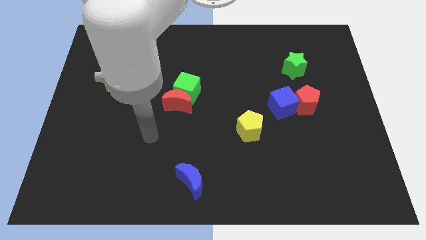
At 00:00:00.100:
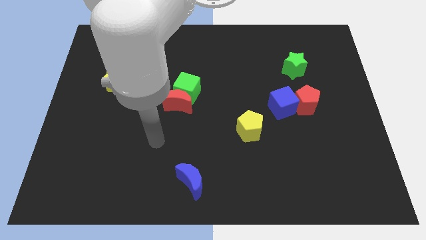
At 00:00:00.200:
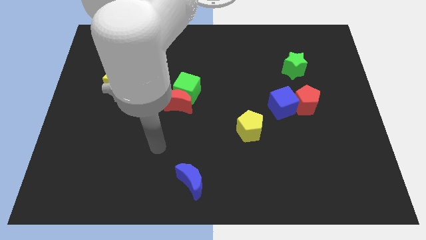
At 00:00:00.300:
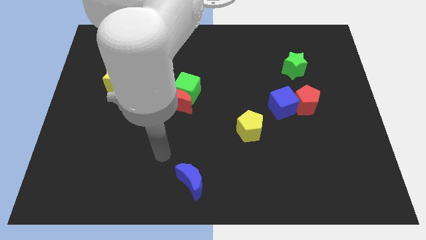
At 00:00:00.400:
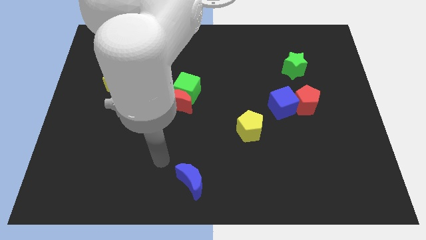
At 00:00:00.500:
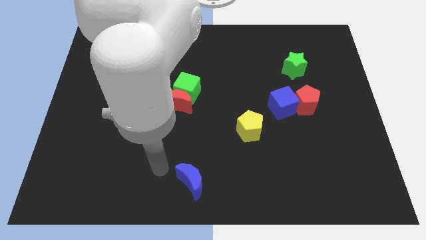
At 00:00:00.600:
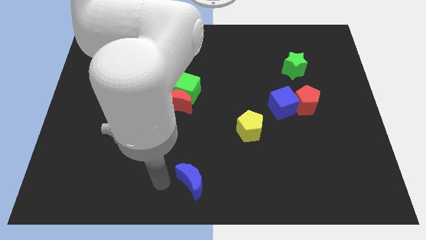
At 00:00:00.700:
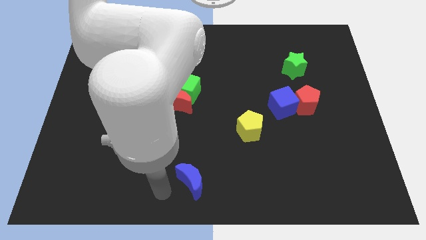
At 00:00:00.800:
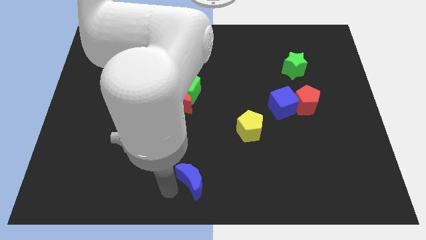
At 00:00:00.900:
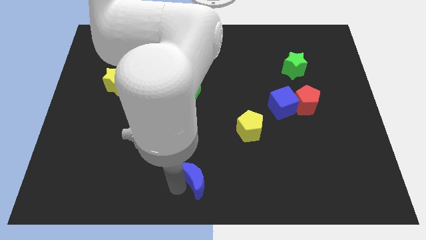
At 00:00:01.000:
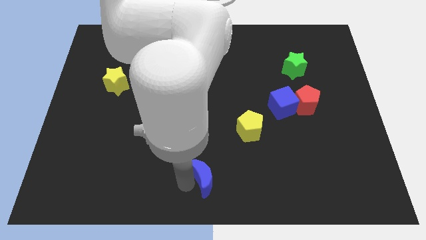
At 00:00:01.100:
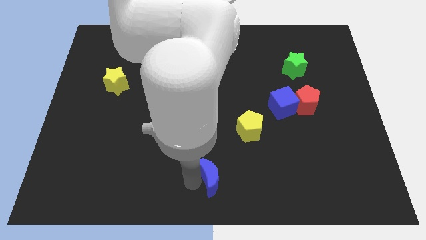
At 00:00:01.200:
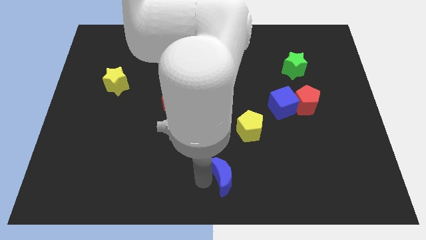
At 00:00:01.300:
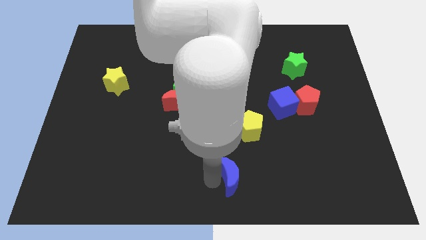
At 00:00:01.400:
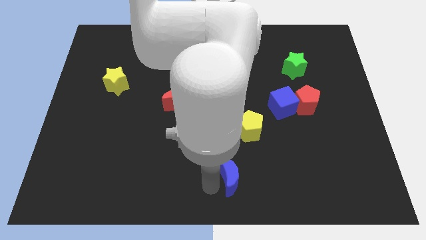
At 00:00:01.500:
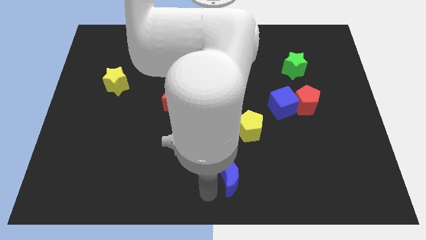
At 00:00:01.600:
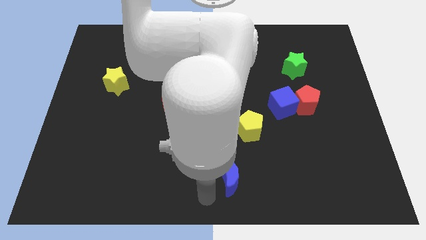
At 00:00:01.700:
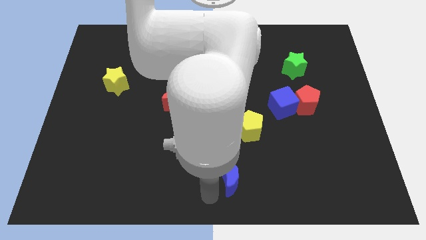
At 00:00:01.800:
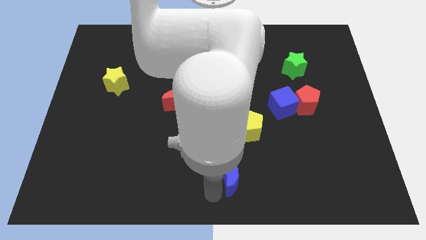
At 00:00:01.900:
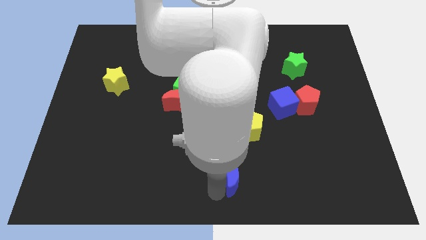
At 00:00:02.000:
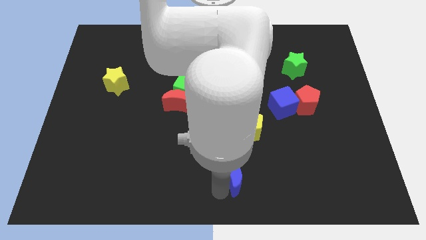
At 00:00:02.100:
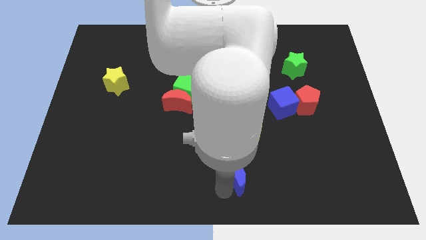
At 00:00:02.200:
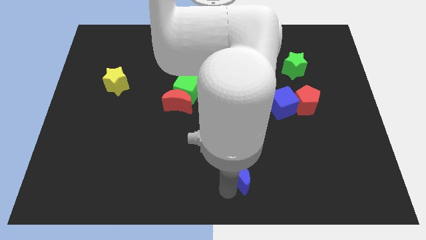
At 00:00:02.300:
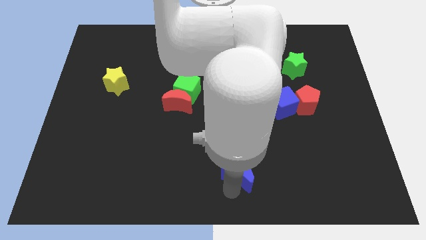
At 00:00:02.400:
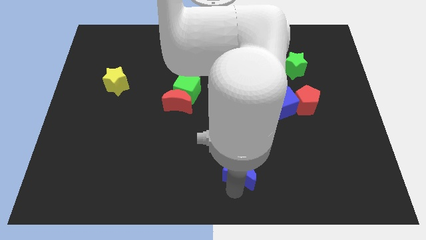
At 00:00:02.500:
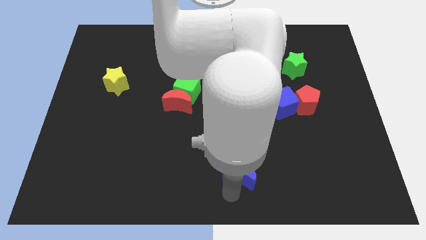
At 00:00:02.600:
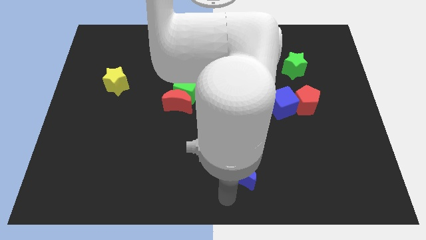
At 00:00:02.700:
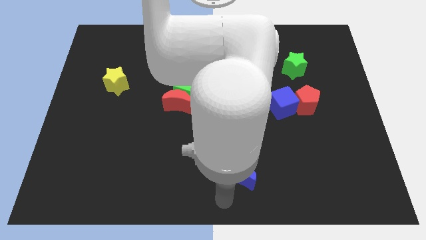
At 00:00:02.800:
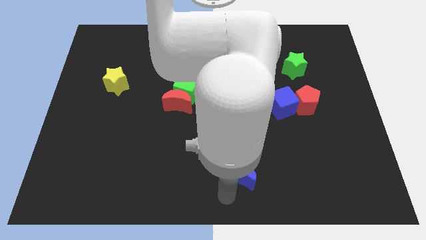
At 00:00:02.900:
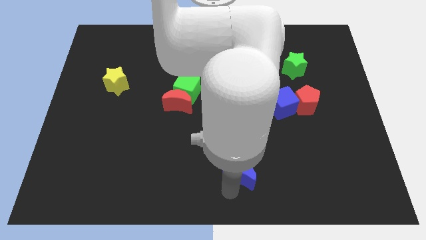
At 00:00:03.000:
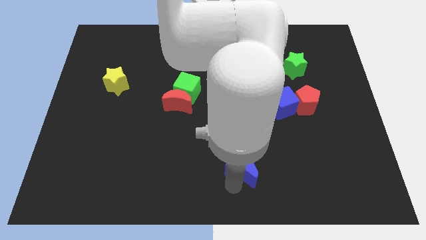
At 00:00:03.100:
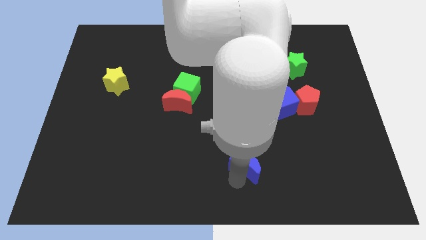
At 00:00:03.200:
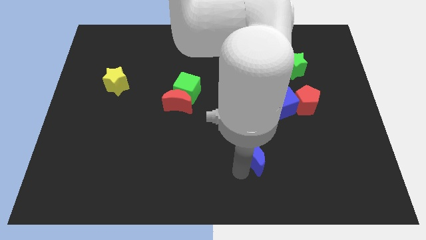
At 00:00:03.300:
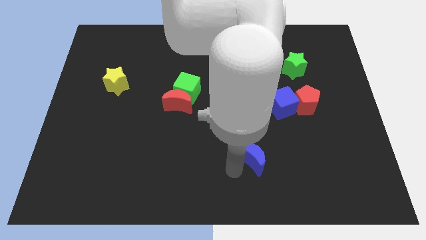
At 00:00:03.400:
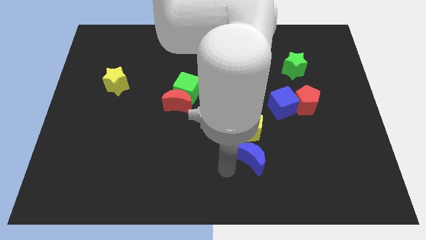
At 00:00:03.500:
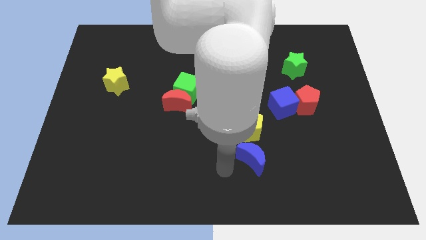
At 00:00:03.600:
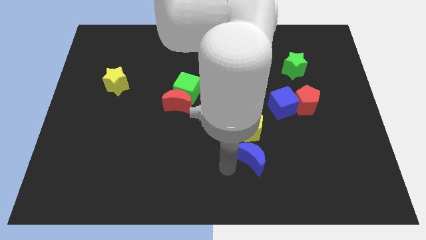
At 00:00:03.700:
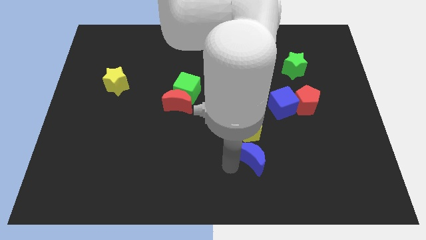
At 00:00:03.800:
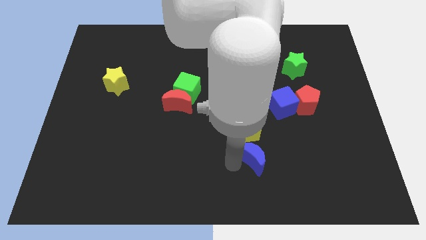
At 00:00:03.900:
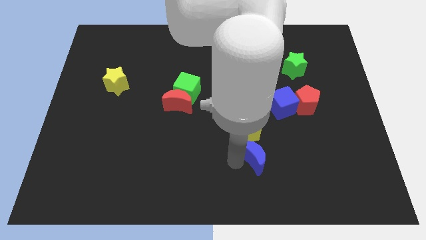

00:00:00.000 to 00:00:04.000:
slide the blue moon to the bottom right of the yellow pentagon

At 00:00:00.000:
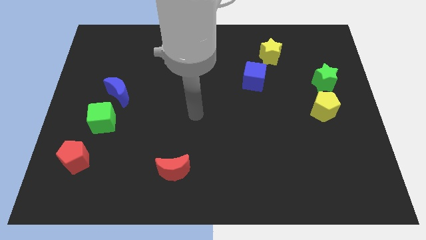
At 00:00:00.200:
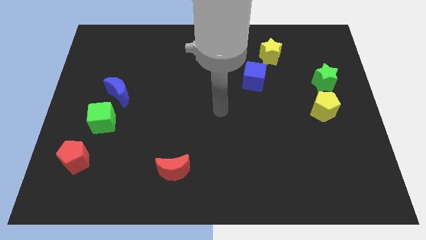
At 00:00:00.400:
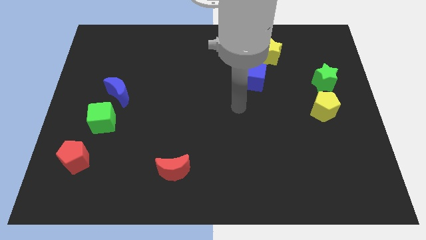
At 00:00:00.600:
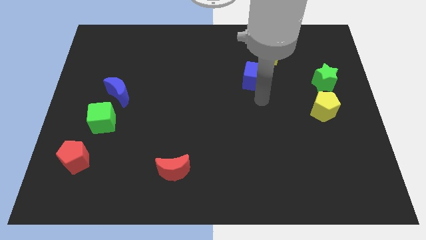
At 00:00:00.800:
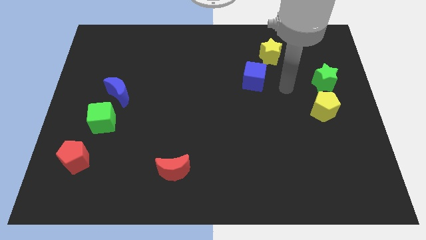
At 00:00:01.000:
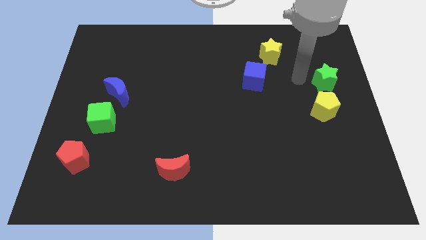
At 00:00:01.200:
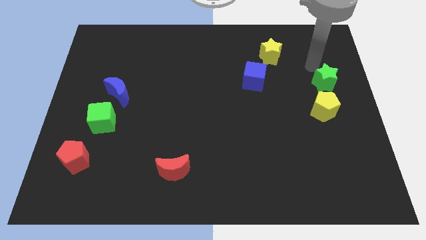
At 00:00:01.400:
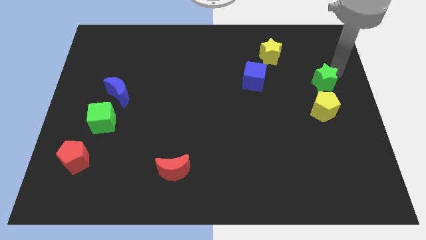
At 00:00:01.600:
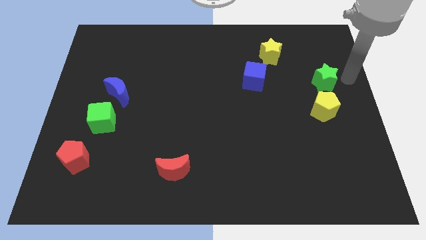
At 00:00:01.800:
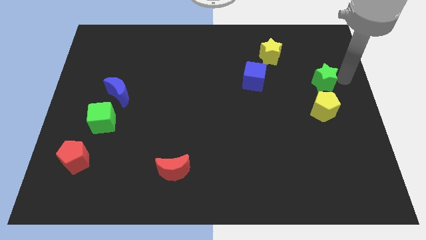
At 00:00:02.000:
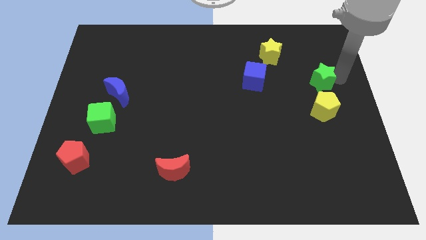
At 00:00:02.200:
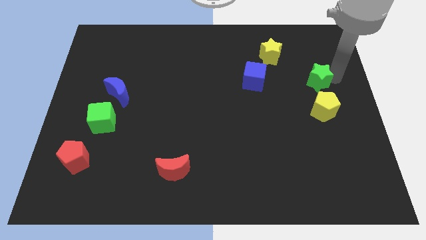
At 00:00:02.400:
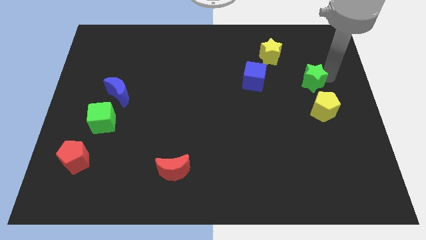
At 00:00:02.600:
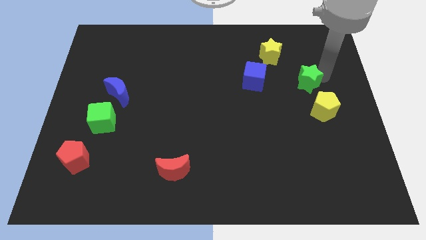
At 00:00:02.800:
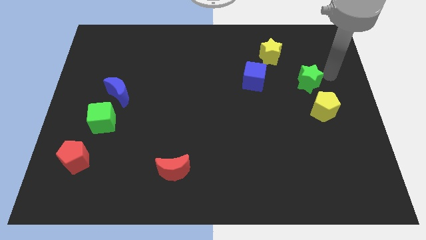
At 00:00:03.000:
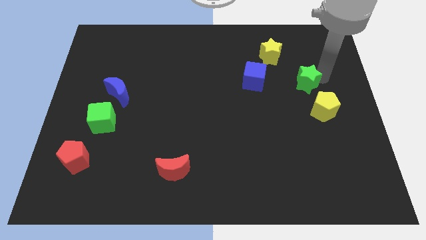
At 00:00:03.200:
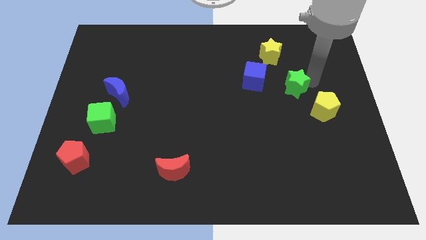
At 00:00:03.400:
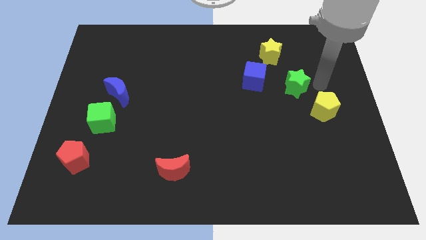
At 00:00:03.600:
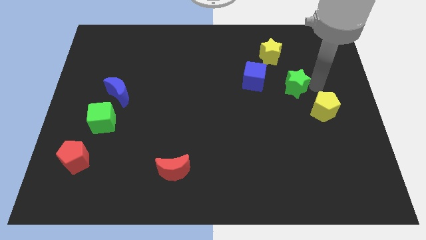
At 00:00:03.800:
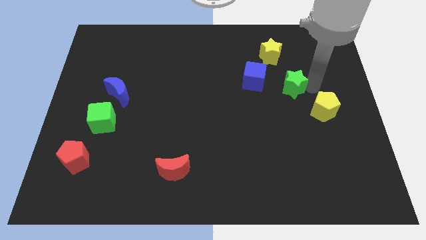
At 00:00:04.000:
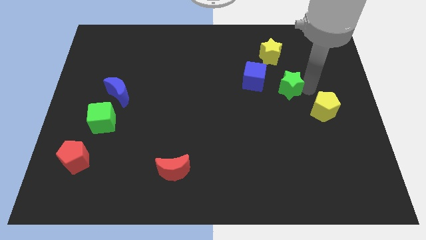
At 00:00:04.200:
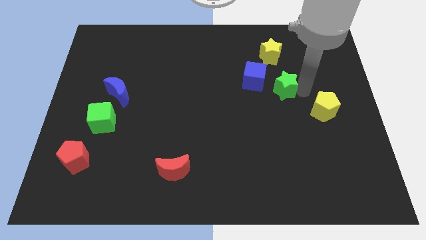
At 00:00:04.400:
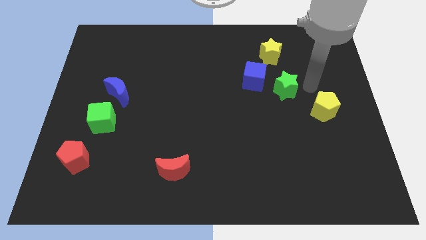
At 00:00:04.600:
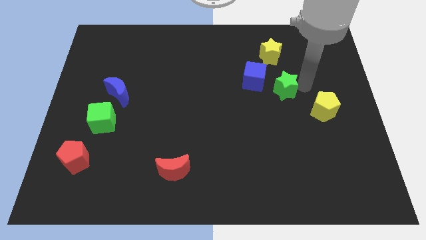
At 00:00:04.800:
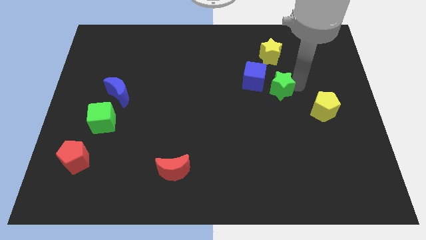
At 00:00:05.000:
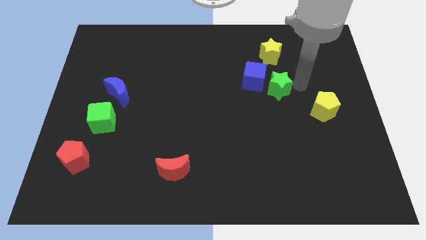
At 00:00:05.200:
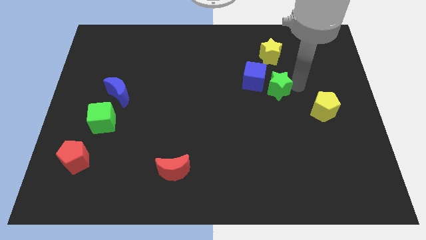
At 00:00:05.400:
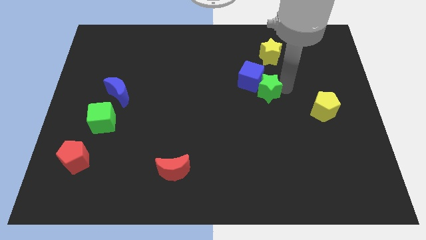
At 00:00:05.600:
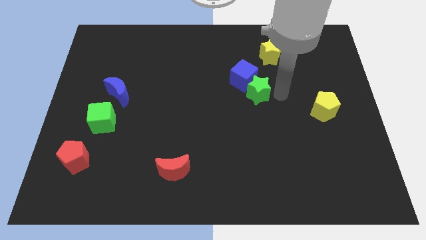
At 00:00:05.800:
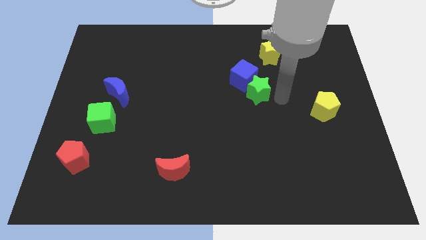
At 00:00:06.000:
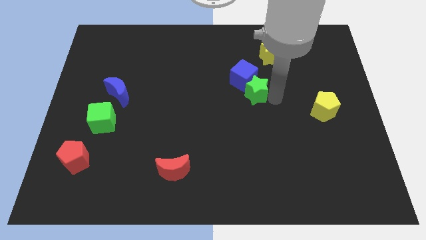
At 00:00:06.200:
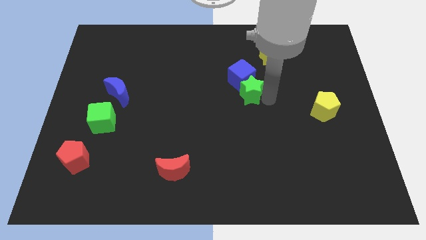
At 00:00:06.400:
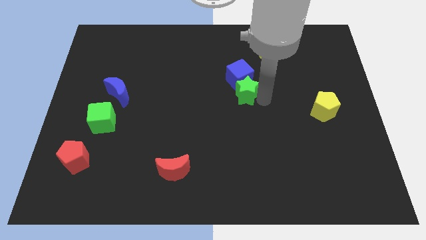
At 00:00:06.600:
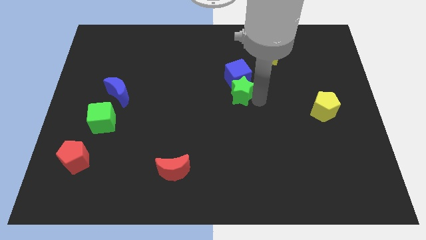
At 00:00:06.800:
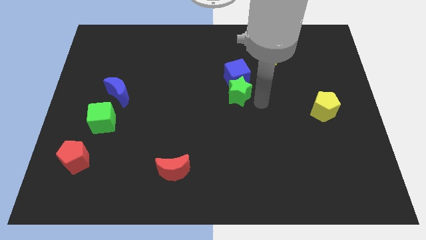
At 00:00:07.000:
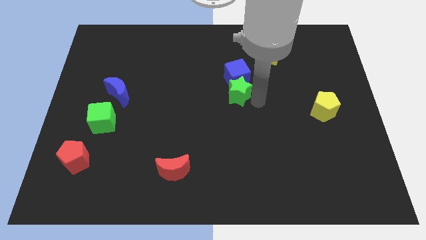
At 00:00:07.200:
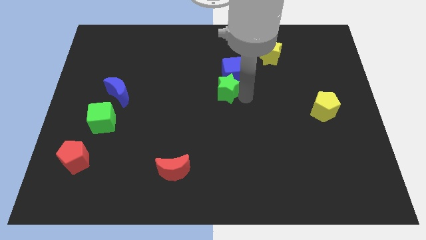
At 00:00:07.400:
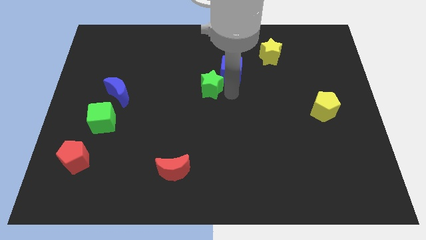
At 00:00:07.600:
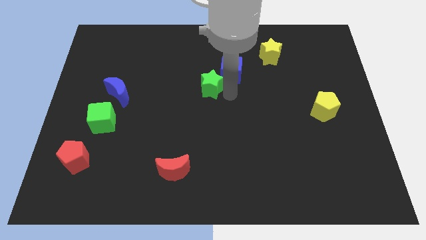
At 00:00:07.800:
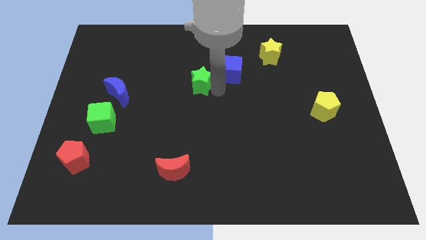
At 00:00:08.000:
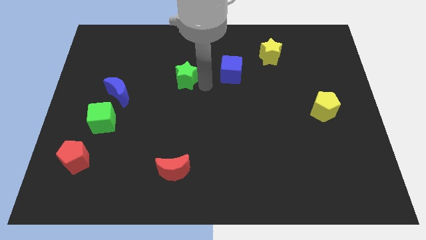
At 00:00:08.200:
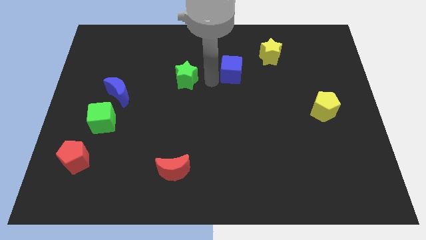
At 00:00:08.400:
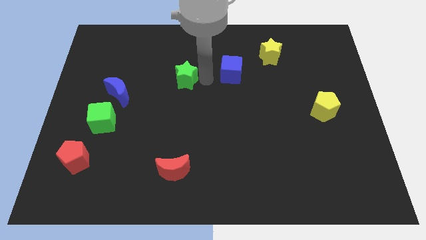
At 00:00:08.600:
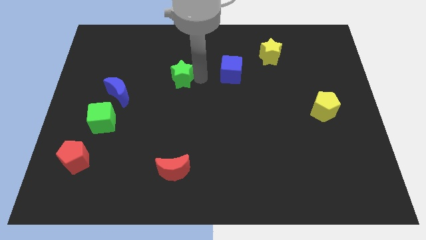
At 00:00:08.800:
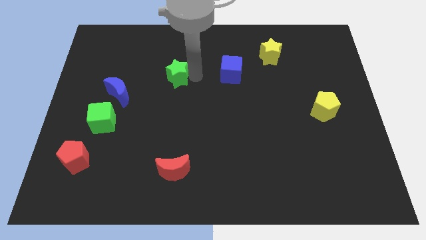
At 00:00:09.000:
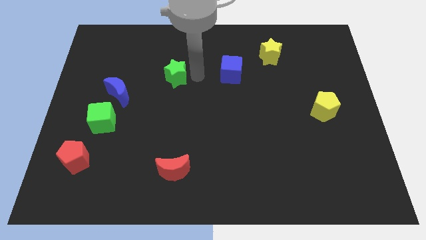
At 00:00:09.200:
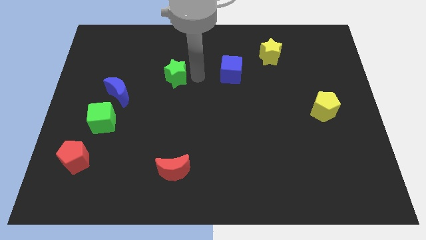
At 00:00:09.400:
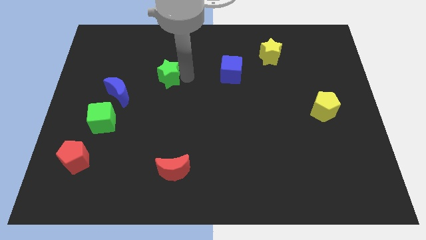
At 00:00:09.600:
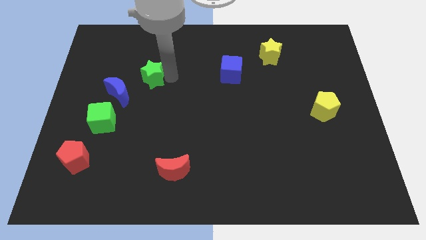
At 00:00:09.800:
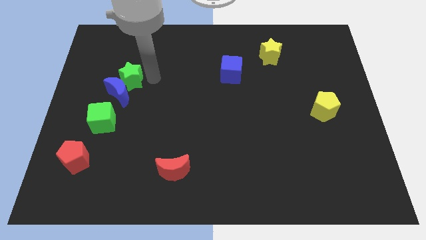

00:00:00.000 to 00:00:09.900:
push the green star to the top left of the blue moon
